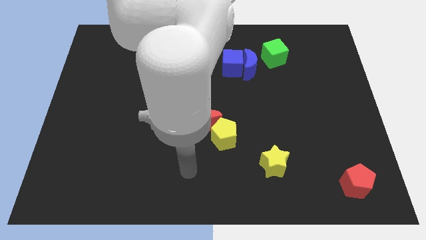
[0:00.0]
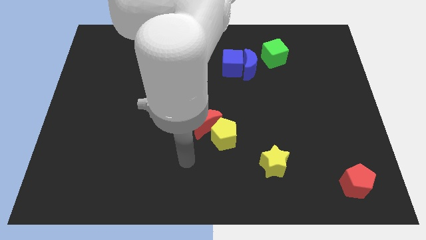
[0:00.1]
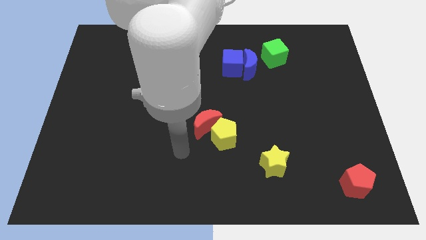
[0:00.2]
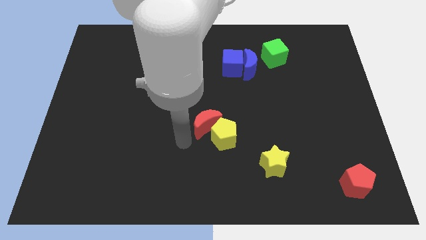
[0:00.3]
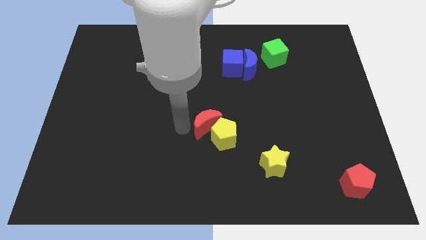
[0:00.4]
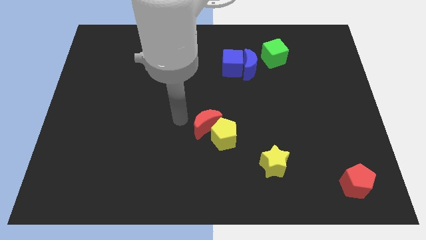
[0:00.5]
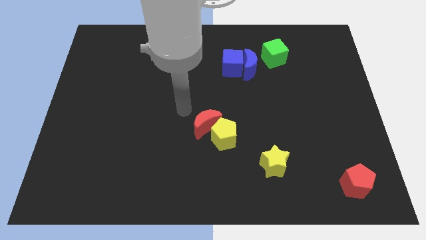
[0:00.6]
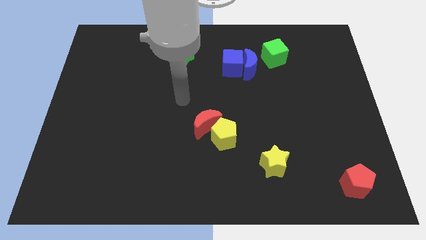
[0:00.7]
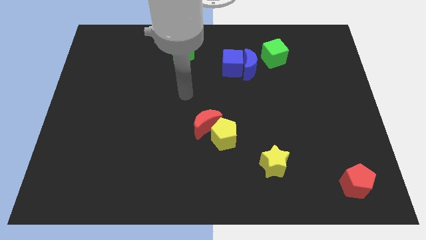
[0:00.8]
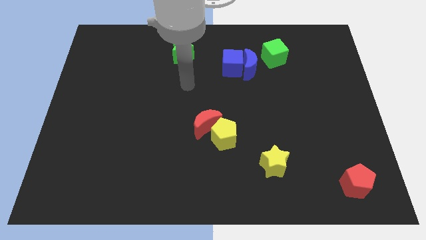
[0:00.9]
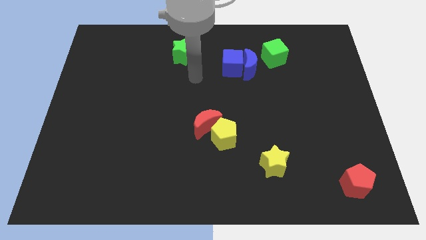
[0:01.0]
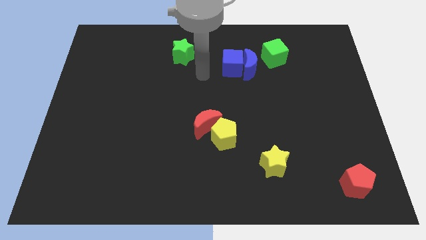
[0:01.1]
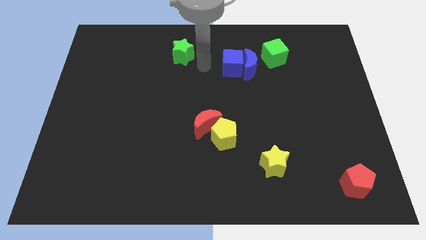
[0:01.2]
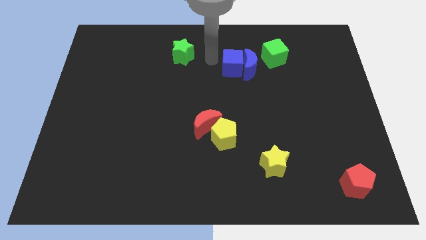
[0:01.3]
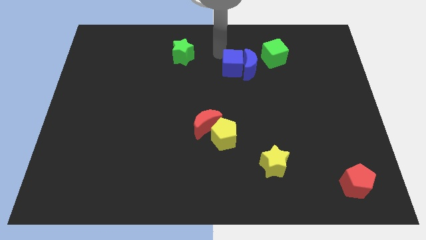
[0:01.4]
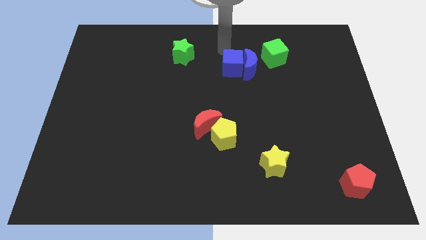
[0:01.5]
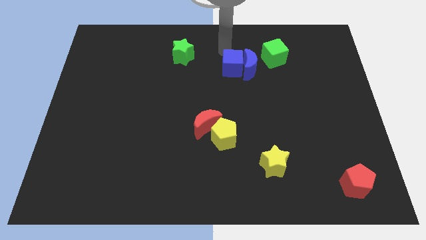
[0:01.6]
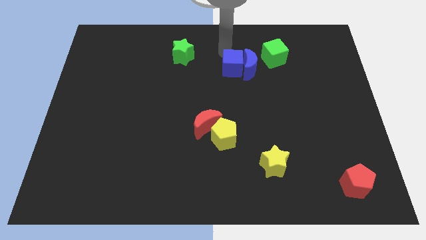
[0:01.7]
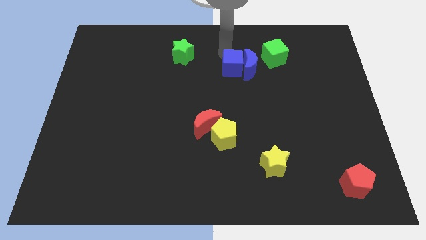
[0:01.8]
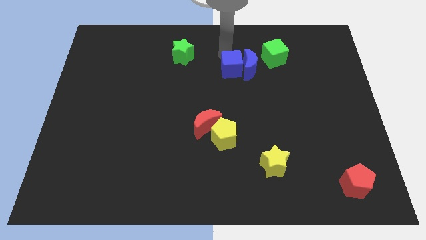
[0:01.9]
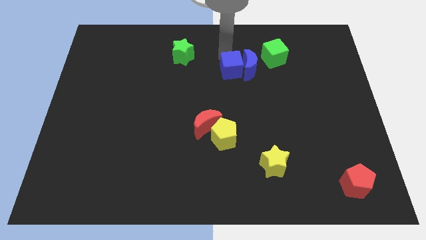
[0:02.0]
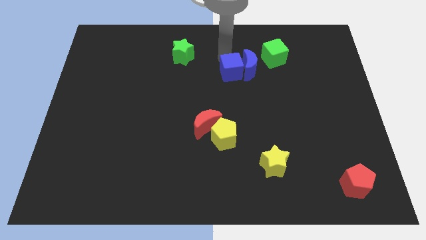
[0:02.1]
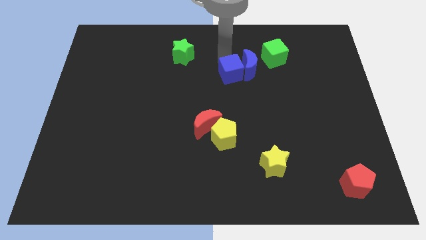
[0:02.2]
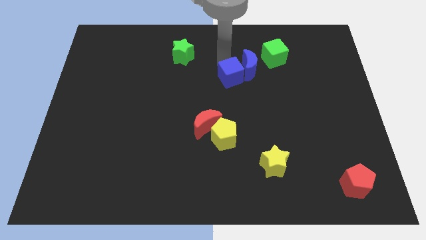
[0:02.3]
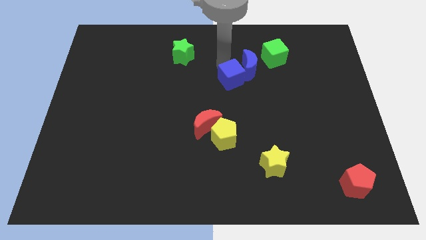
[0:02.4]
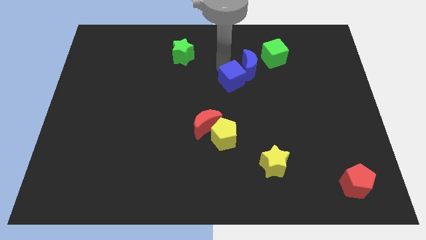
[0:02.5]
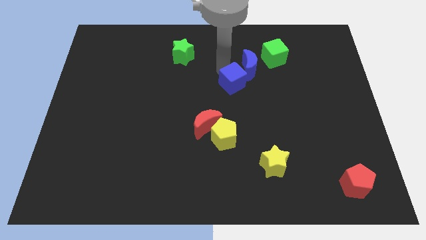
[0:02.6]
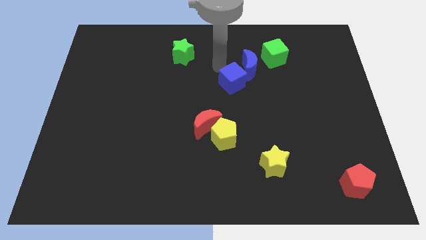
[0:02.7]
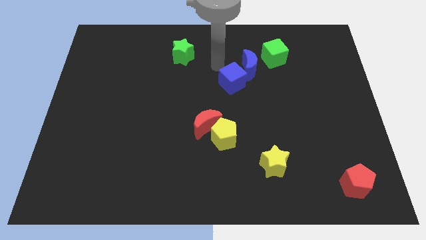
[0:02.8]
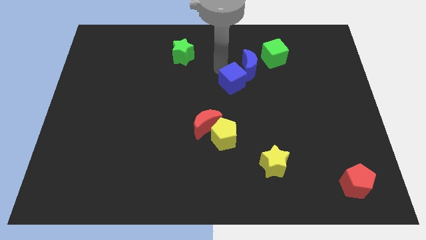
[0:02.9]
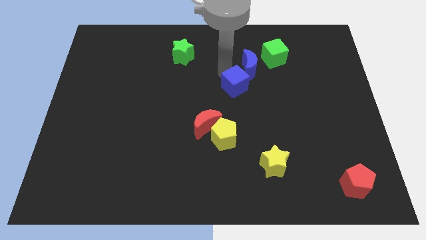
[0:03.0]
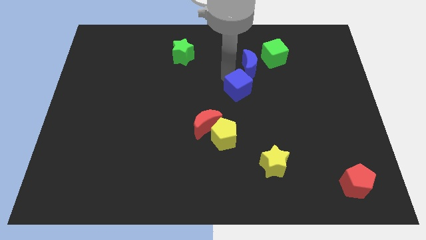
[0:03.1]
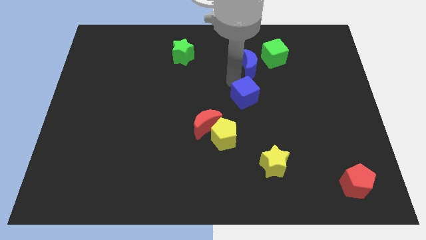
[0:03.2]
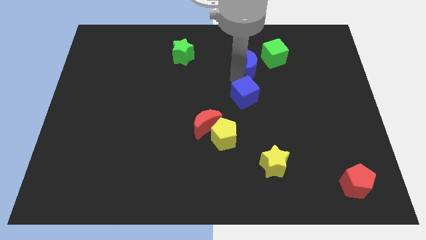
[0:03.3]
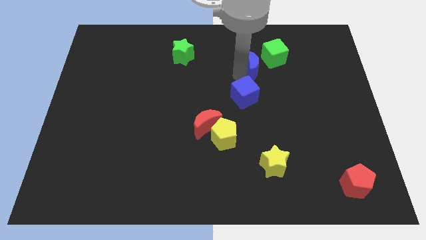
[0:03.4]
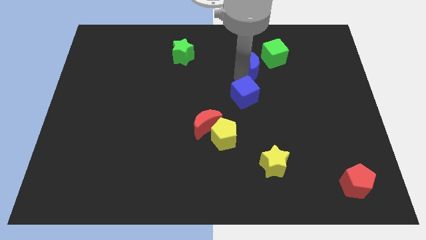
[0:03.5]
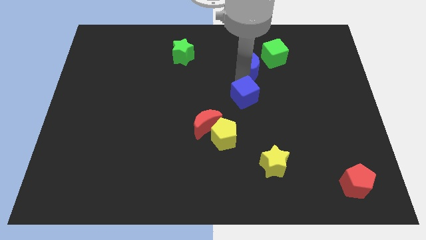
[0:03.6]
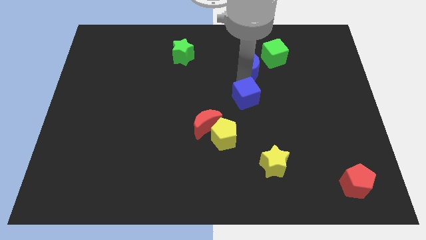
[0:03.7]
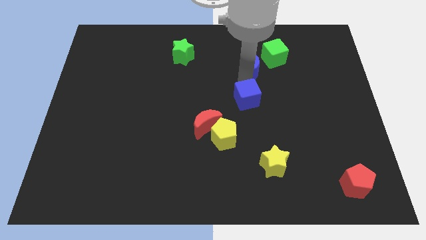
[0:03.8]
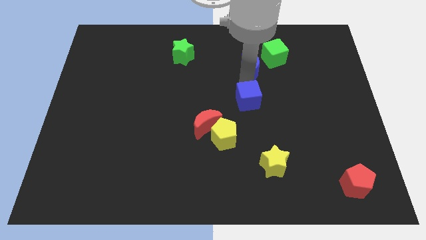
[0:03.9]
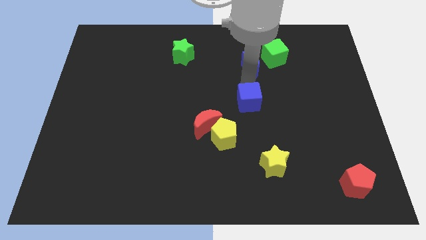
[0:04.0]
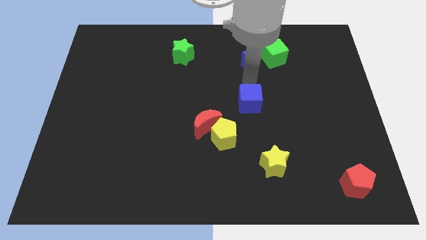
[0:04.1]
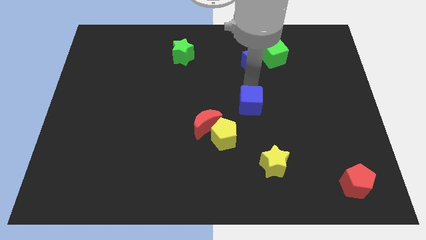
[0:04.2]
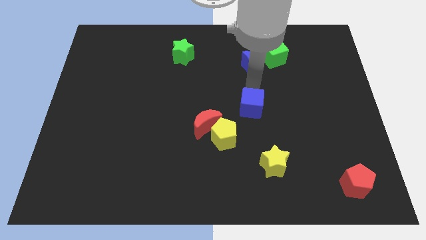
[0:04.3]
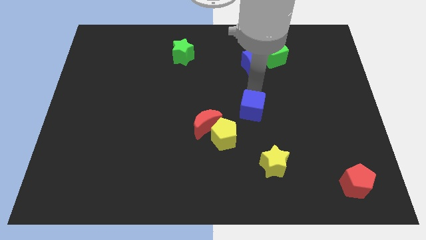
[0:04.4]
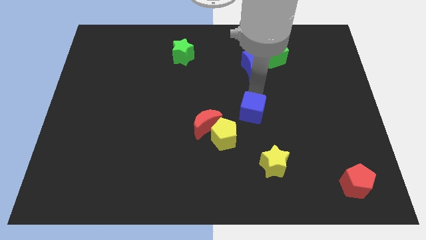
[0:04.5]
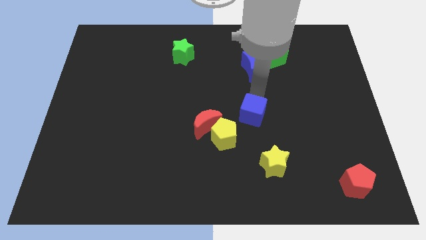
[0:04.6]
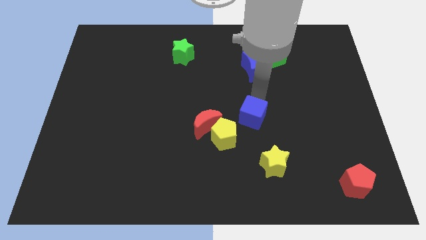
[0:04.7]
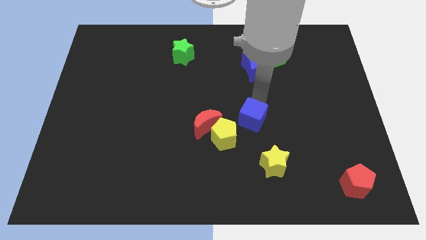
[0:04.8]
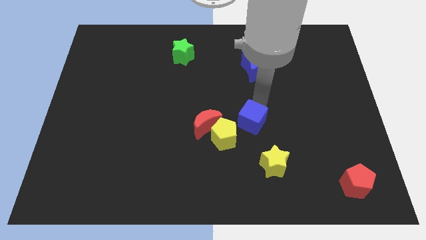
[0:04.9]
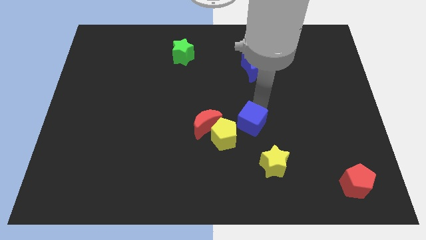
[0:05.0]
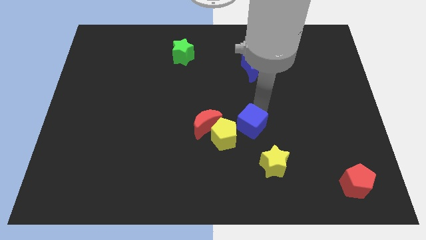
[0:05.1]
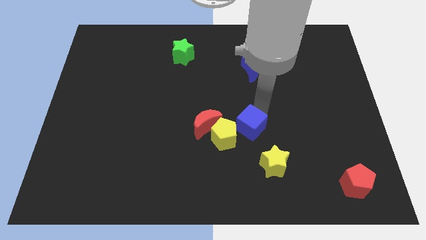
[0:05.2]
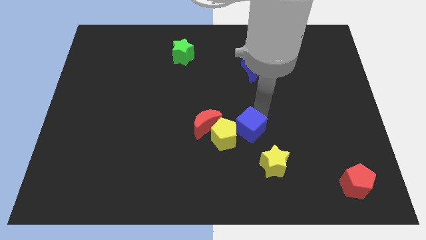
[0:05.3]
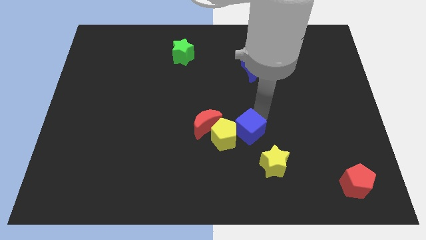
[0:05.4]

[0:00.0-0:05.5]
push the blue cube close to the yellow pentagon

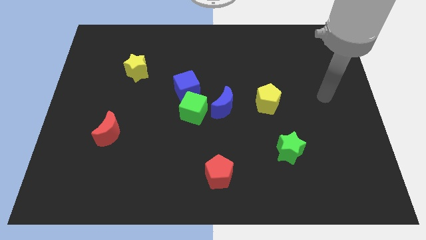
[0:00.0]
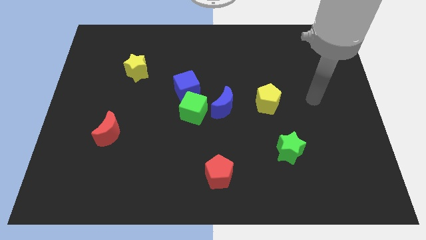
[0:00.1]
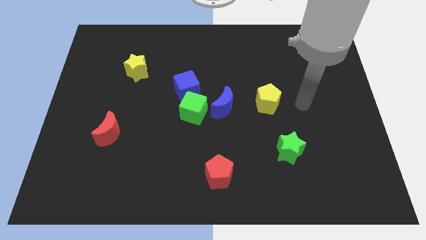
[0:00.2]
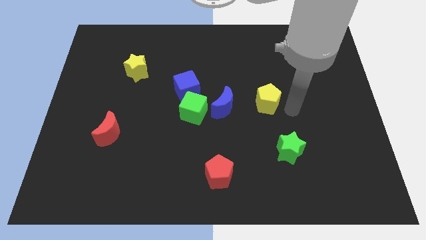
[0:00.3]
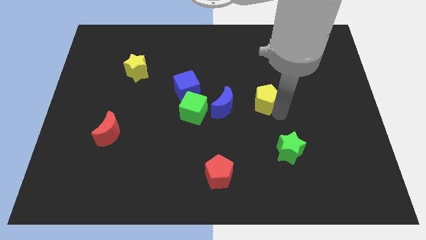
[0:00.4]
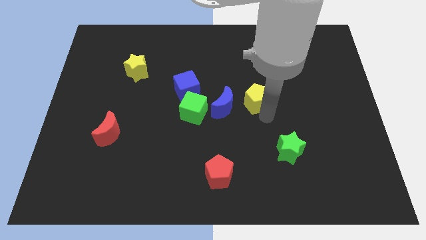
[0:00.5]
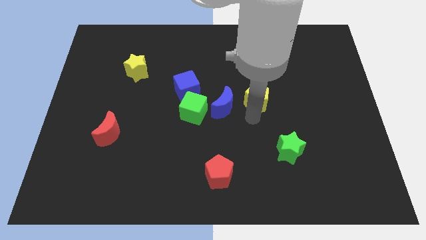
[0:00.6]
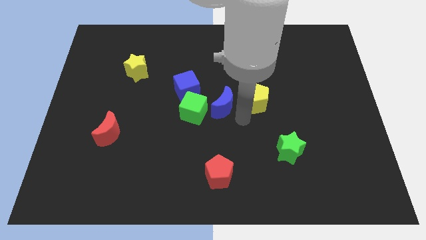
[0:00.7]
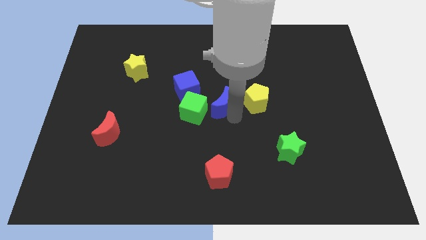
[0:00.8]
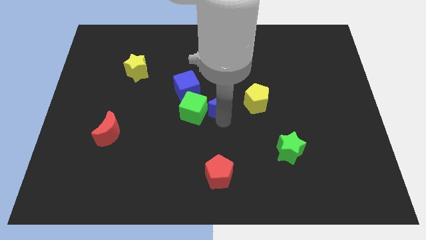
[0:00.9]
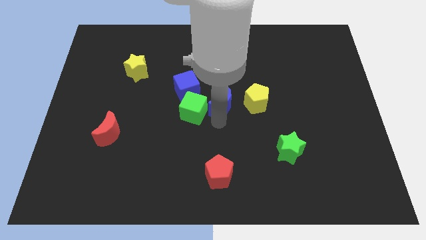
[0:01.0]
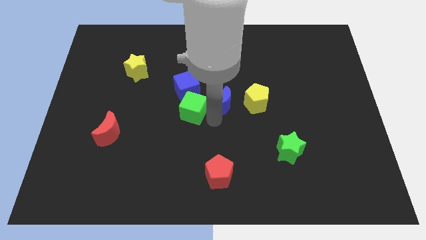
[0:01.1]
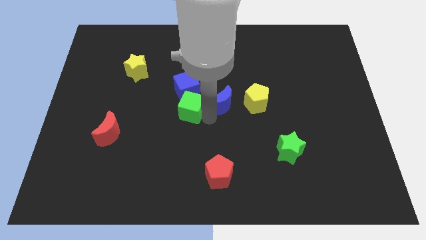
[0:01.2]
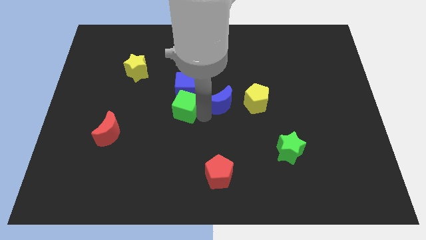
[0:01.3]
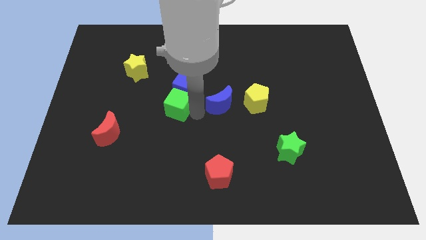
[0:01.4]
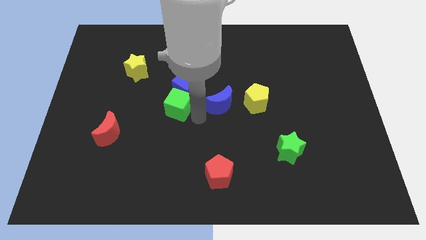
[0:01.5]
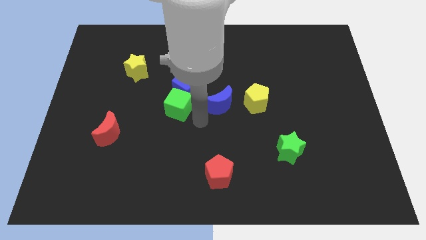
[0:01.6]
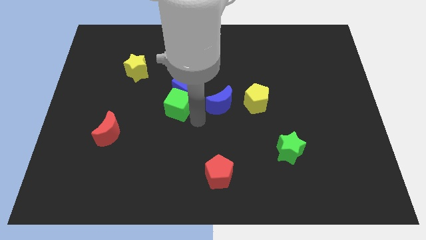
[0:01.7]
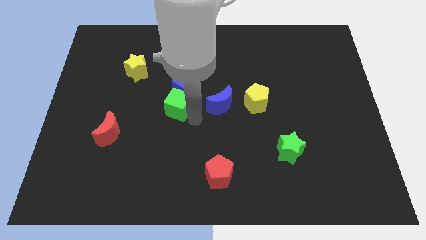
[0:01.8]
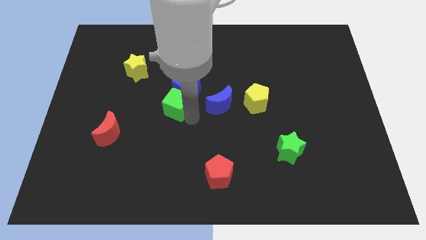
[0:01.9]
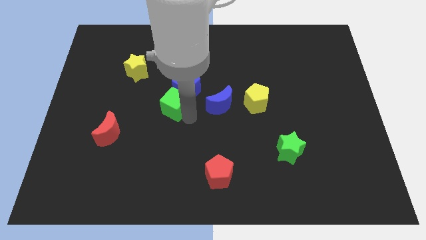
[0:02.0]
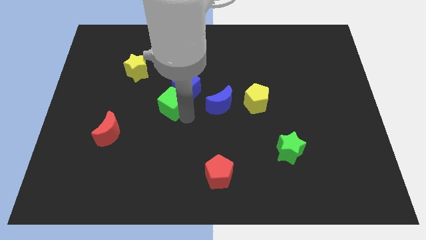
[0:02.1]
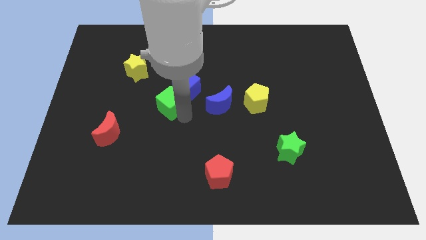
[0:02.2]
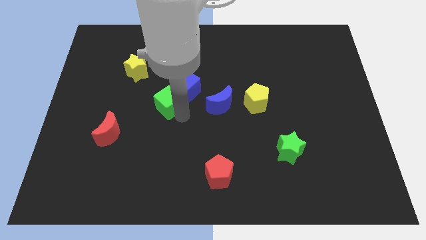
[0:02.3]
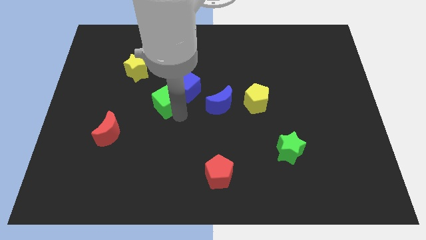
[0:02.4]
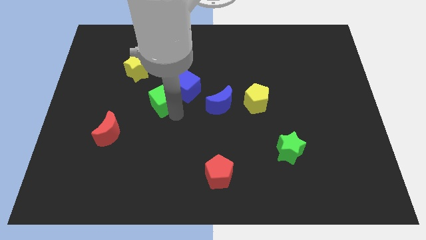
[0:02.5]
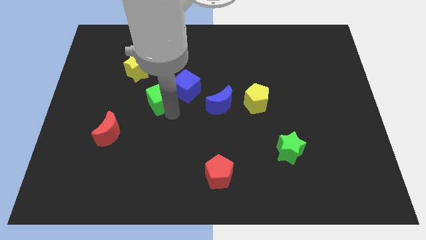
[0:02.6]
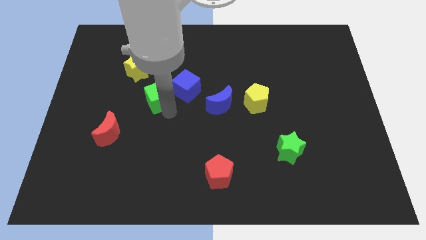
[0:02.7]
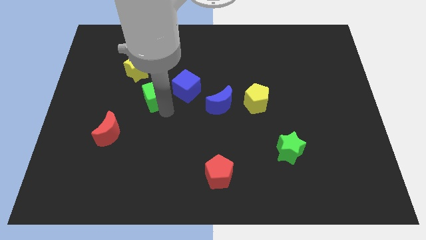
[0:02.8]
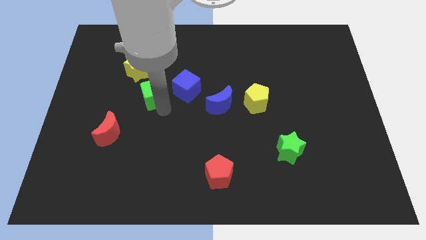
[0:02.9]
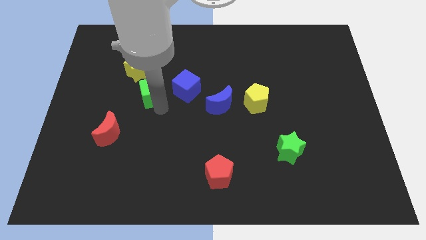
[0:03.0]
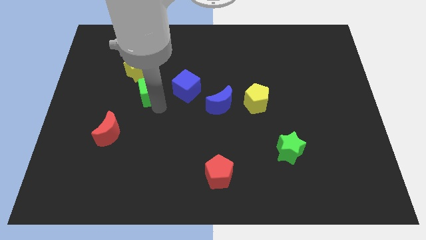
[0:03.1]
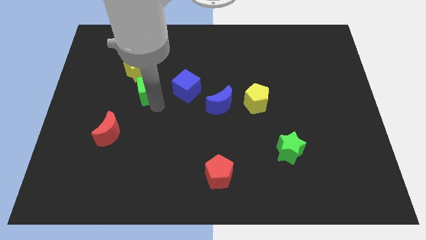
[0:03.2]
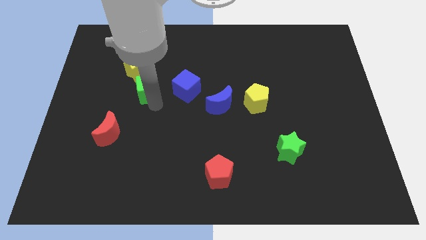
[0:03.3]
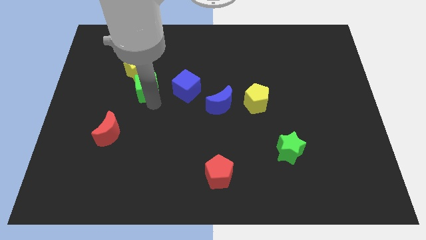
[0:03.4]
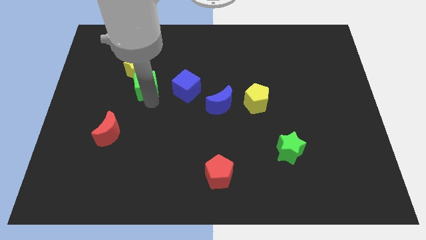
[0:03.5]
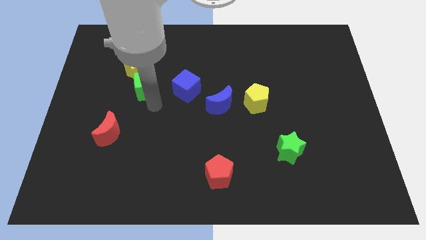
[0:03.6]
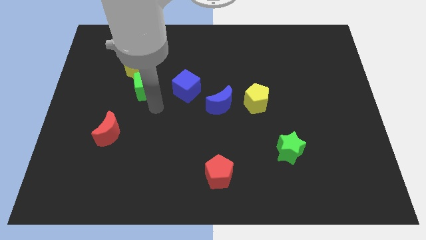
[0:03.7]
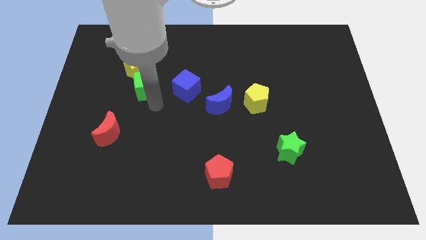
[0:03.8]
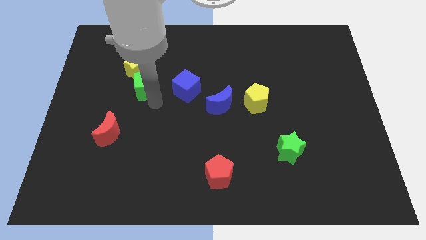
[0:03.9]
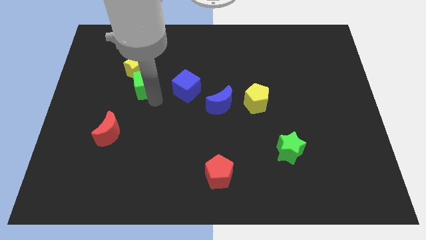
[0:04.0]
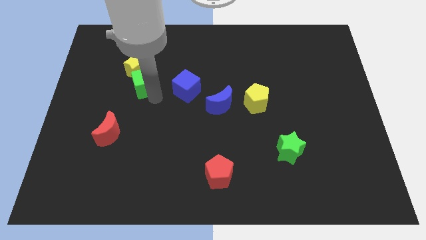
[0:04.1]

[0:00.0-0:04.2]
push the green cube next to the yellow star
